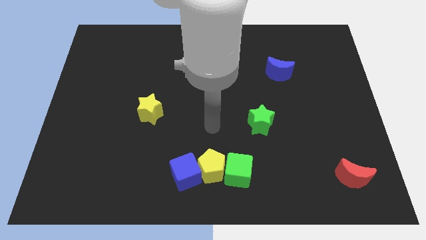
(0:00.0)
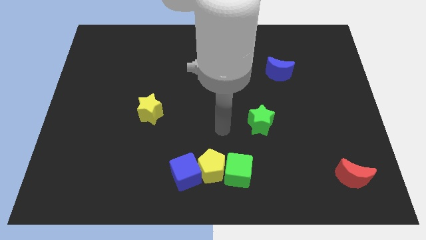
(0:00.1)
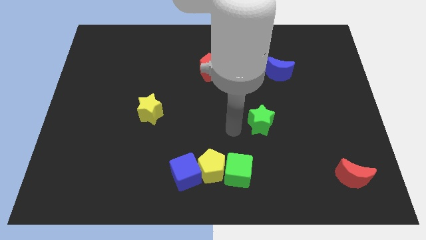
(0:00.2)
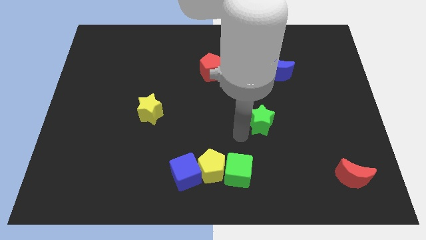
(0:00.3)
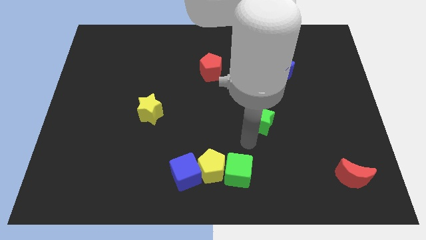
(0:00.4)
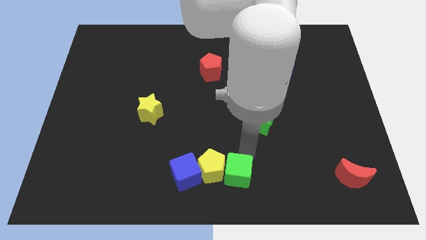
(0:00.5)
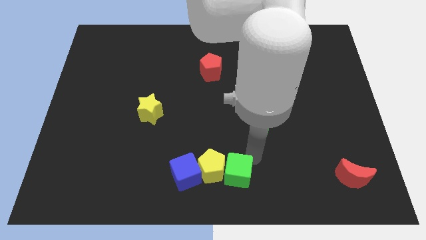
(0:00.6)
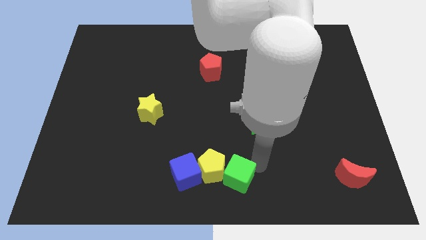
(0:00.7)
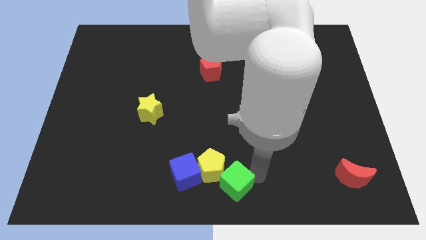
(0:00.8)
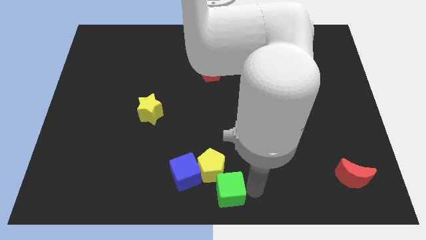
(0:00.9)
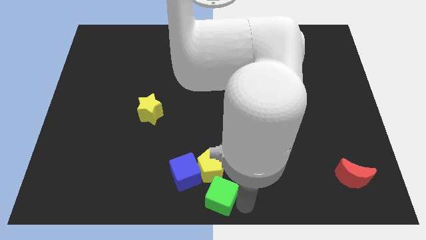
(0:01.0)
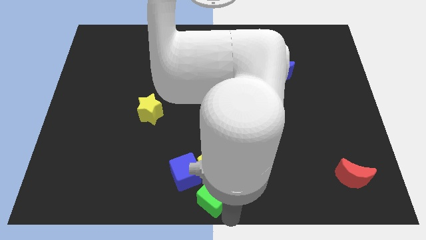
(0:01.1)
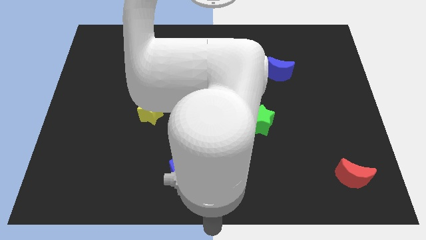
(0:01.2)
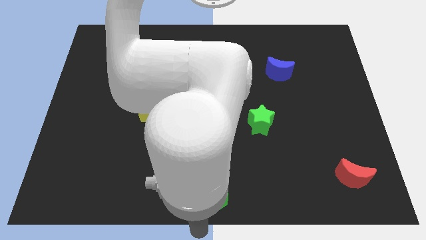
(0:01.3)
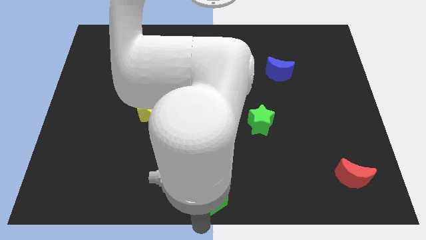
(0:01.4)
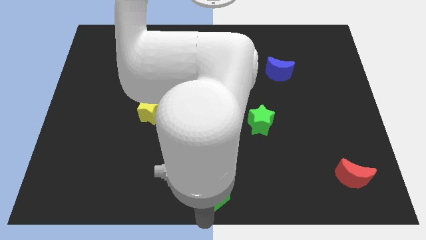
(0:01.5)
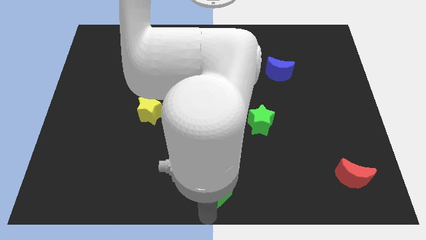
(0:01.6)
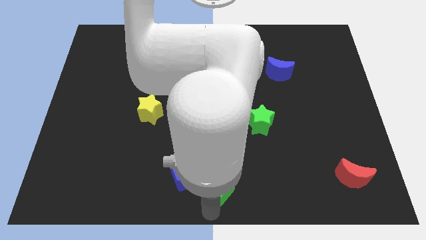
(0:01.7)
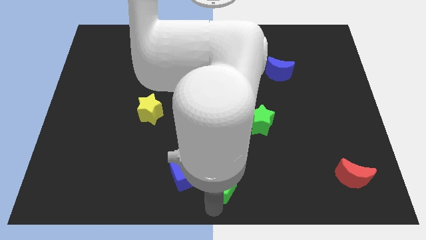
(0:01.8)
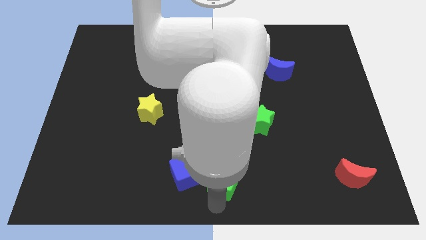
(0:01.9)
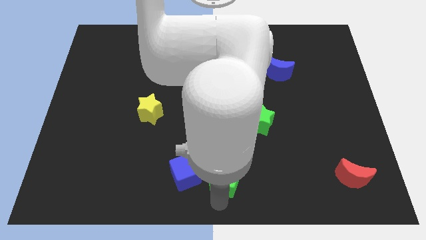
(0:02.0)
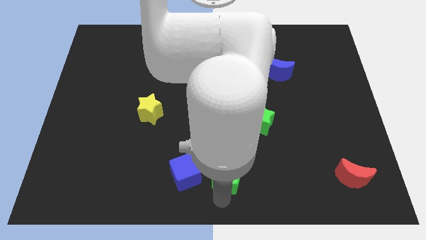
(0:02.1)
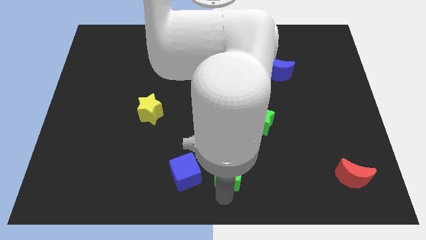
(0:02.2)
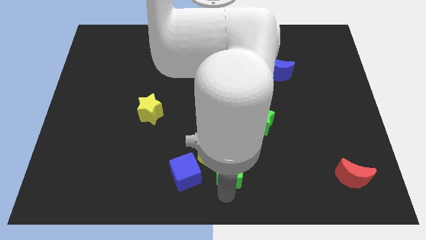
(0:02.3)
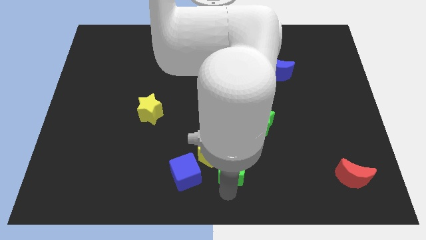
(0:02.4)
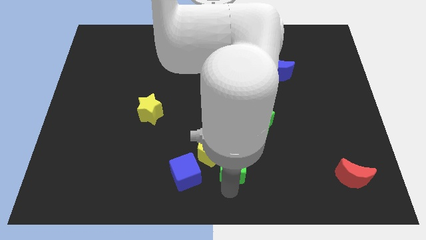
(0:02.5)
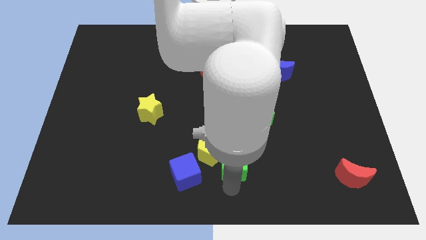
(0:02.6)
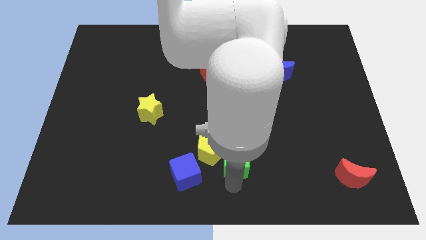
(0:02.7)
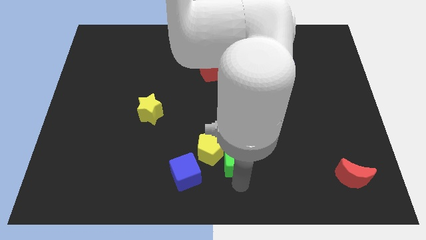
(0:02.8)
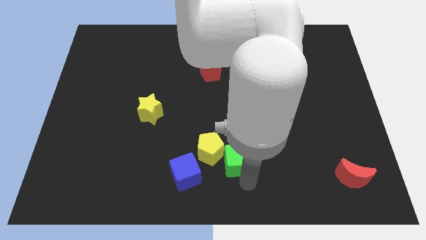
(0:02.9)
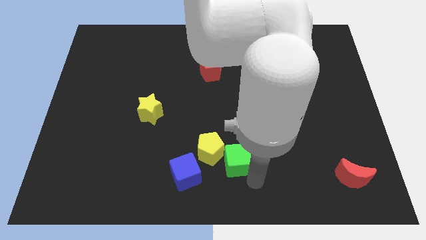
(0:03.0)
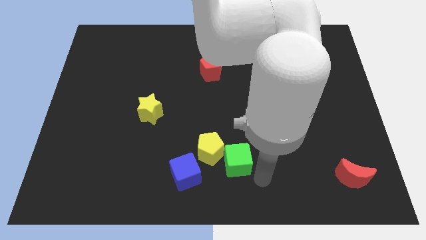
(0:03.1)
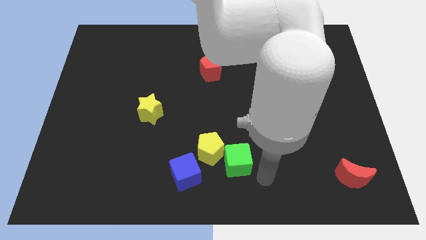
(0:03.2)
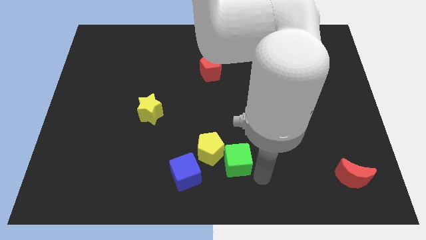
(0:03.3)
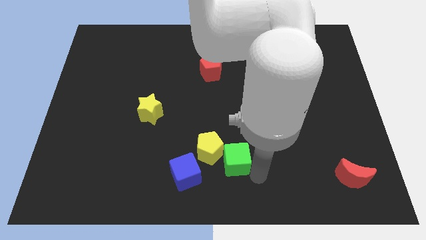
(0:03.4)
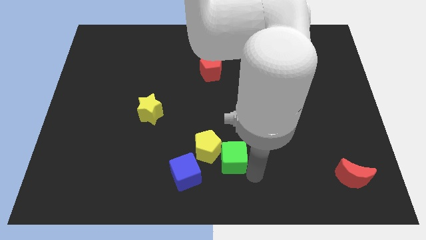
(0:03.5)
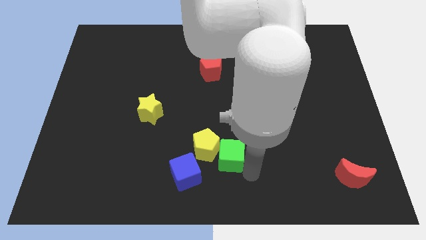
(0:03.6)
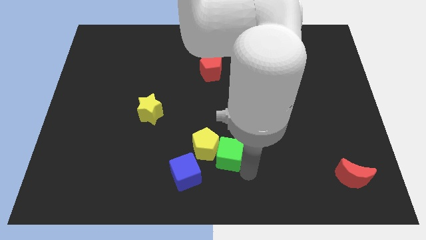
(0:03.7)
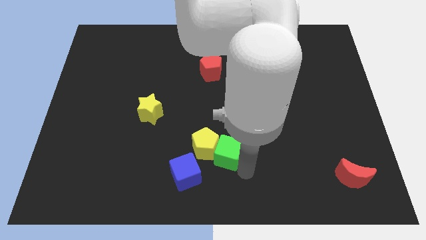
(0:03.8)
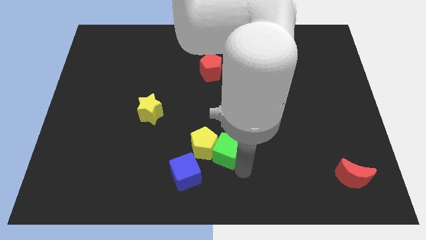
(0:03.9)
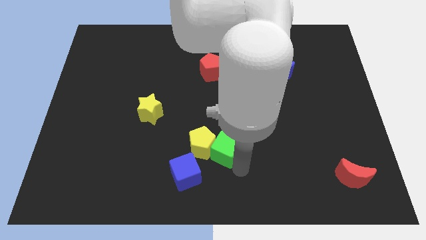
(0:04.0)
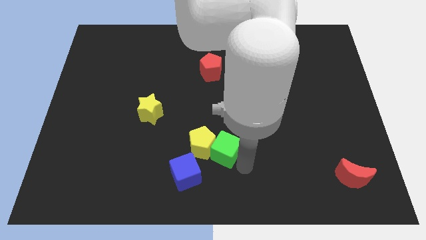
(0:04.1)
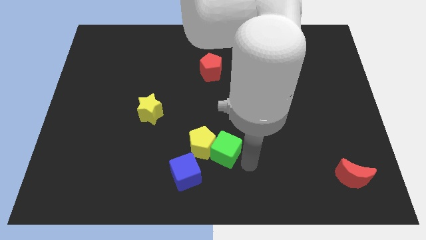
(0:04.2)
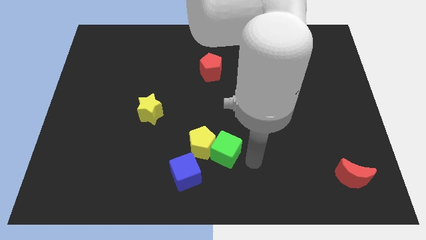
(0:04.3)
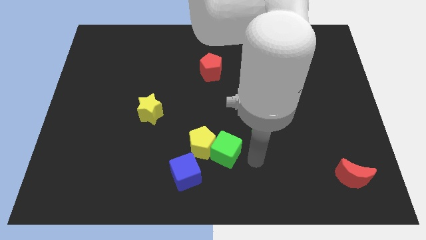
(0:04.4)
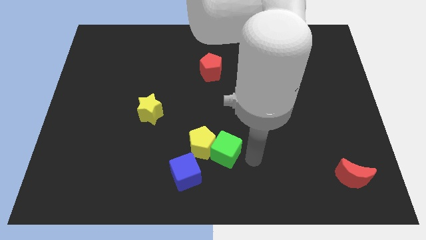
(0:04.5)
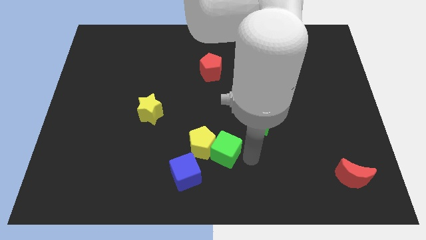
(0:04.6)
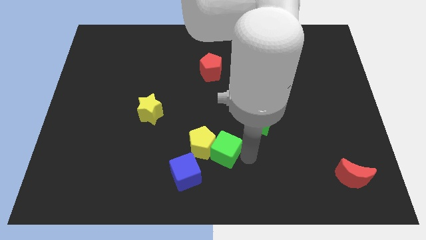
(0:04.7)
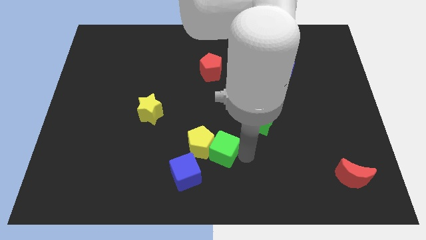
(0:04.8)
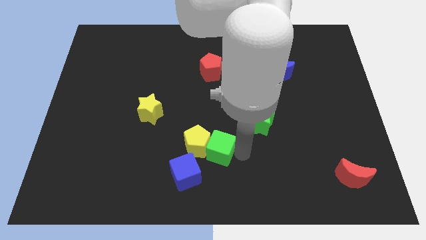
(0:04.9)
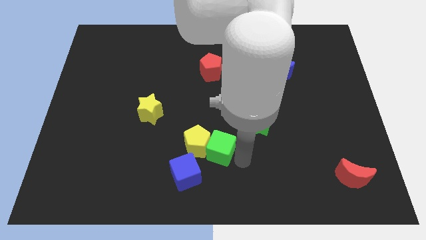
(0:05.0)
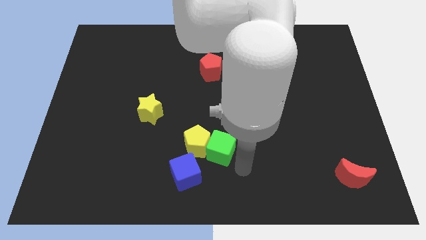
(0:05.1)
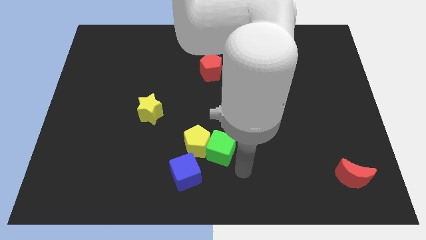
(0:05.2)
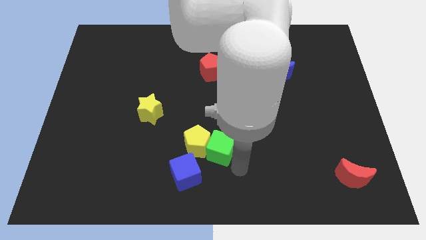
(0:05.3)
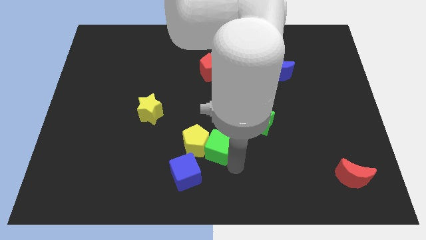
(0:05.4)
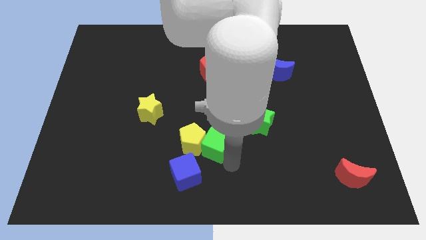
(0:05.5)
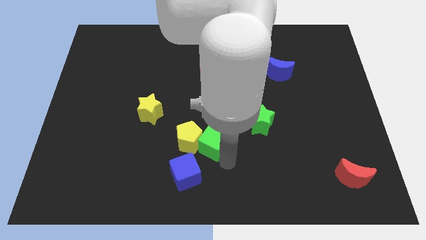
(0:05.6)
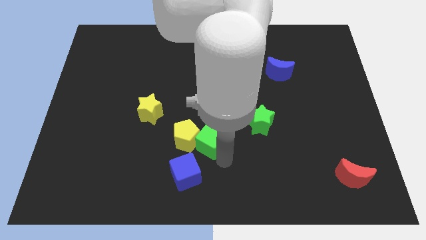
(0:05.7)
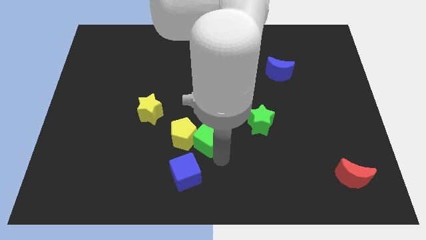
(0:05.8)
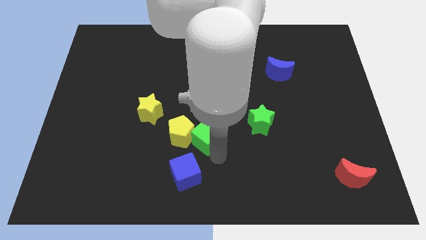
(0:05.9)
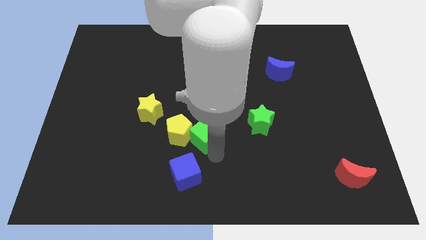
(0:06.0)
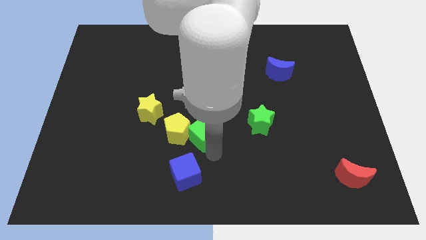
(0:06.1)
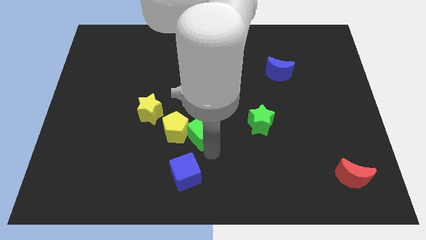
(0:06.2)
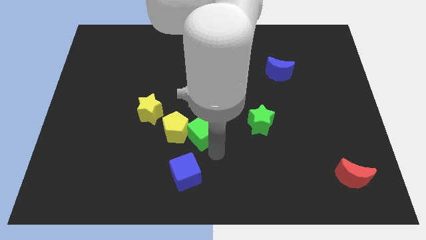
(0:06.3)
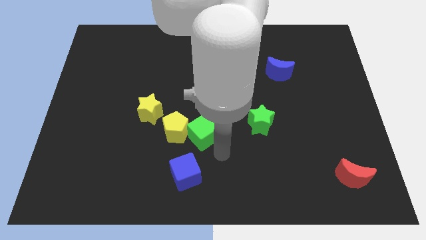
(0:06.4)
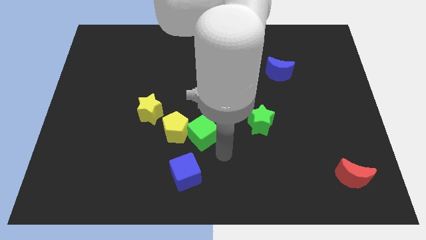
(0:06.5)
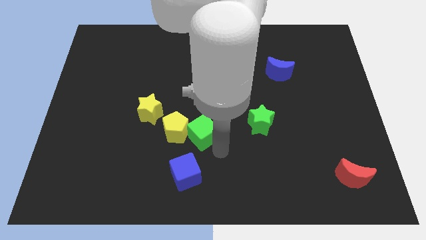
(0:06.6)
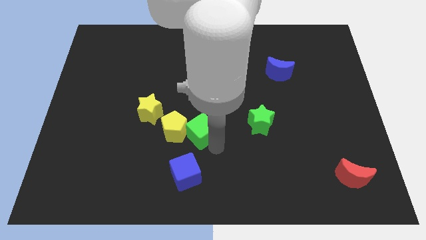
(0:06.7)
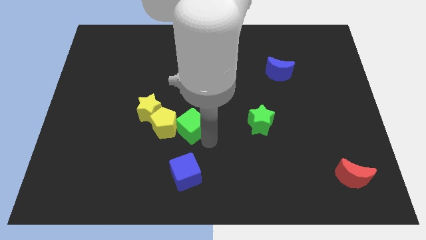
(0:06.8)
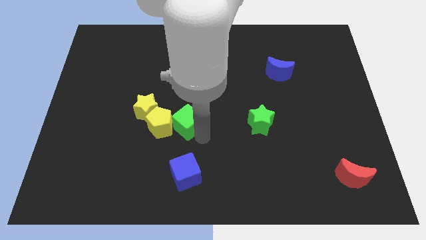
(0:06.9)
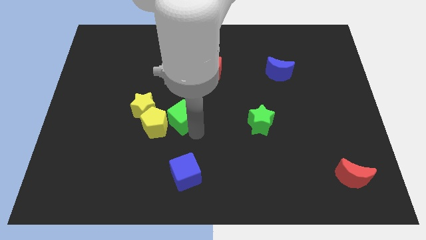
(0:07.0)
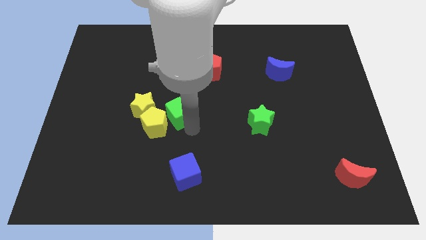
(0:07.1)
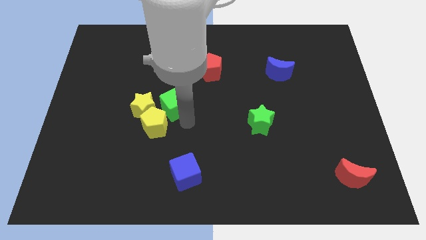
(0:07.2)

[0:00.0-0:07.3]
move the green cube upwards and left

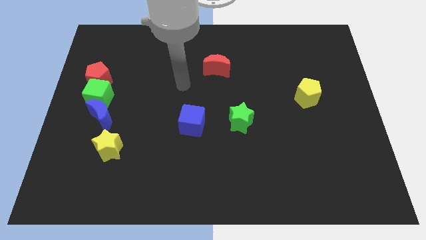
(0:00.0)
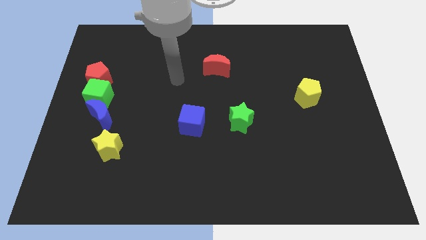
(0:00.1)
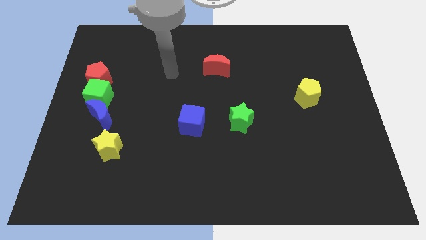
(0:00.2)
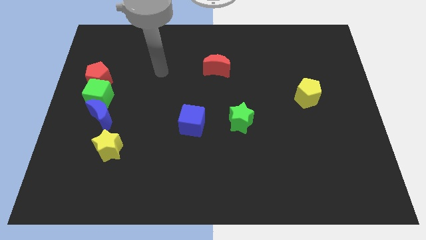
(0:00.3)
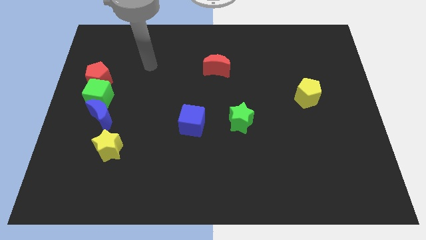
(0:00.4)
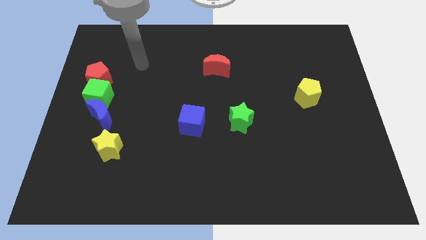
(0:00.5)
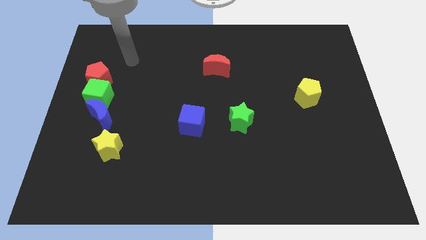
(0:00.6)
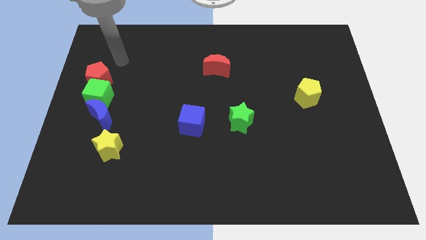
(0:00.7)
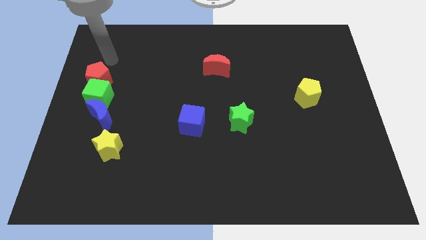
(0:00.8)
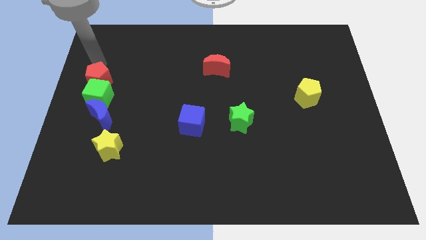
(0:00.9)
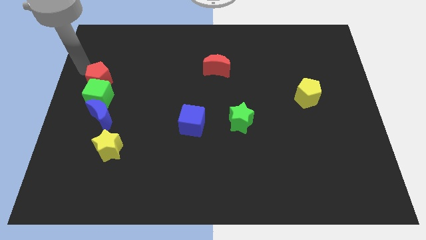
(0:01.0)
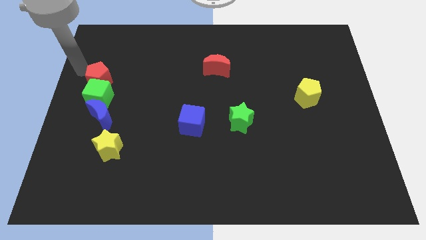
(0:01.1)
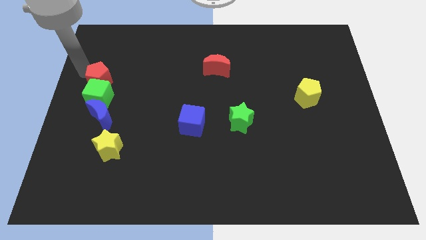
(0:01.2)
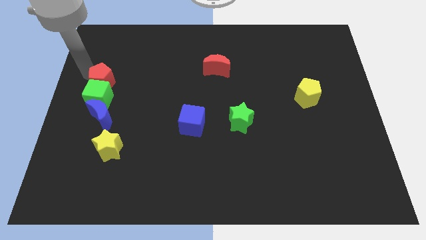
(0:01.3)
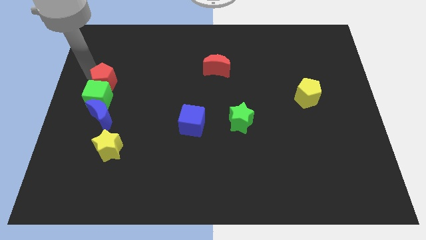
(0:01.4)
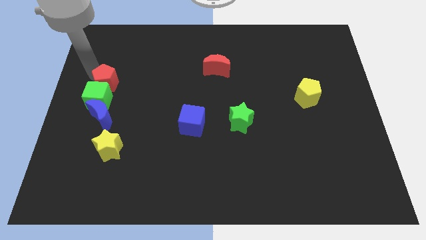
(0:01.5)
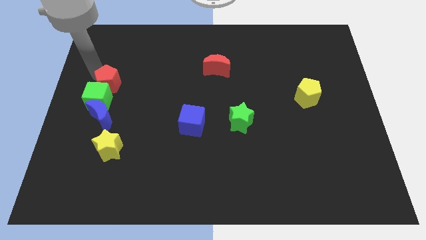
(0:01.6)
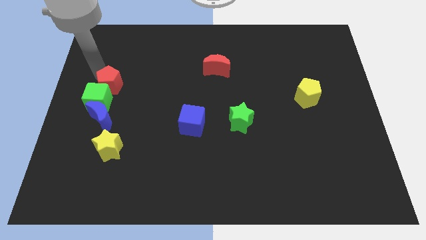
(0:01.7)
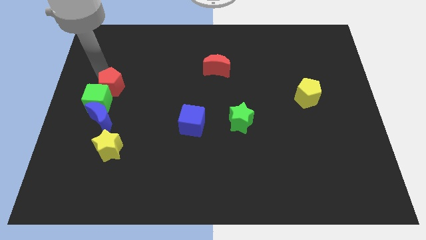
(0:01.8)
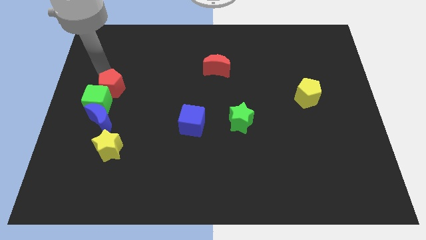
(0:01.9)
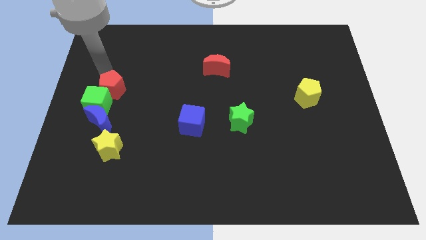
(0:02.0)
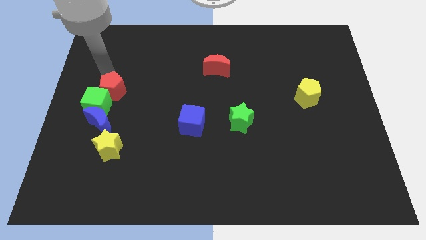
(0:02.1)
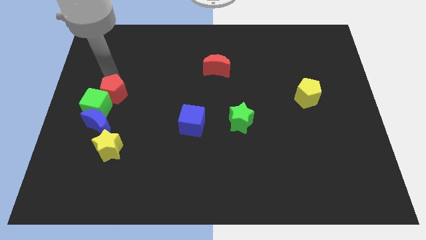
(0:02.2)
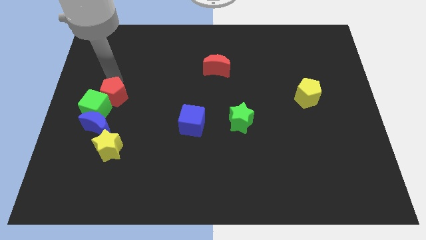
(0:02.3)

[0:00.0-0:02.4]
move the red pentagon slightly diagonally down and right
